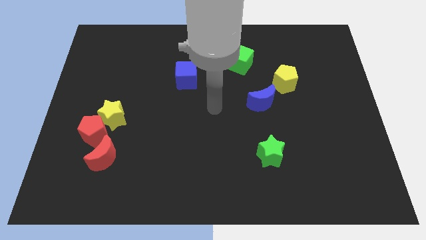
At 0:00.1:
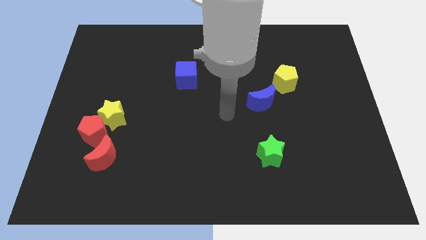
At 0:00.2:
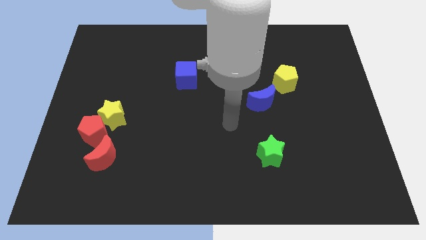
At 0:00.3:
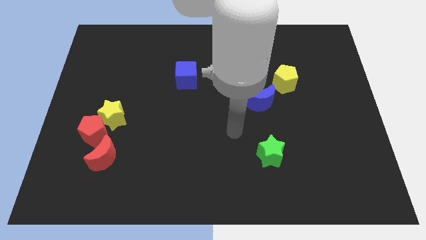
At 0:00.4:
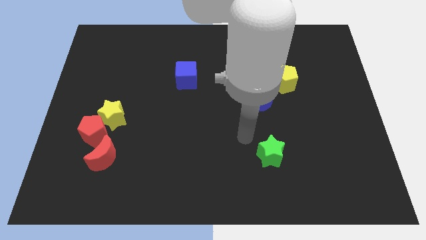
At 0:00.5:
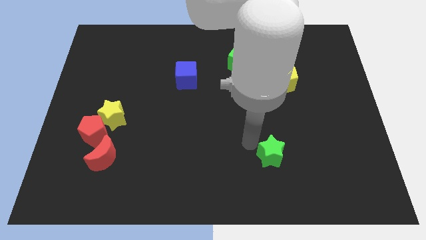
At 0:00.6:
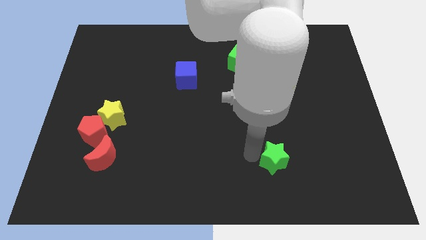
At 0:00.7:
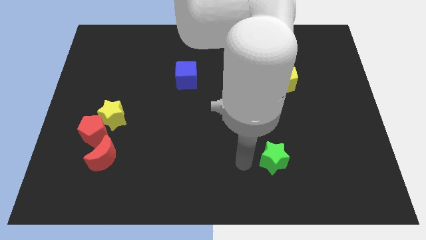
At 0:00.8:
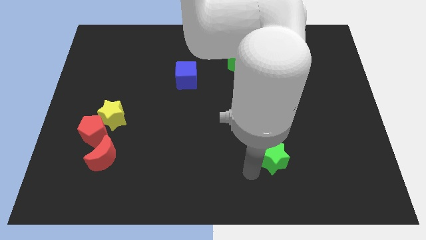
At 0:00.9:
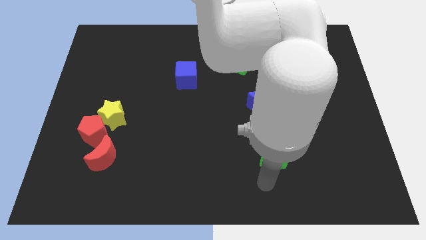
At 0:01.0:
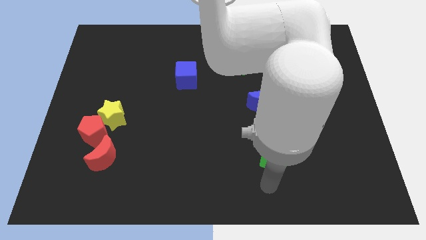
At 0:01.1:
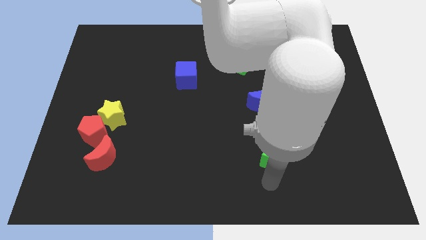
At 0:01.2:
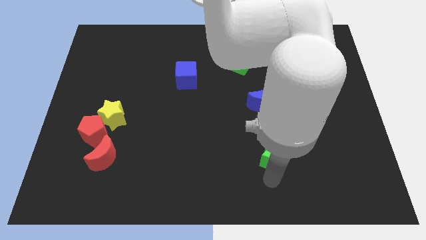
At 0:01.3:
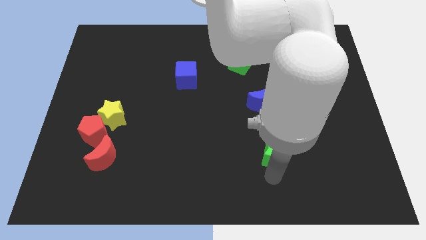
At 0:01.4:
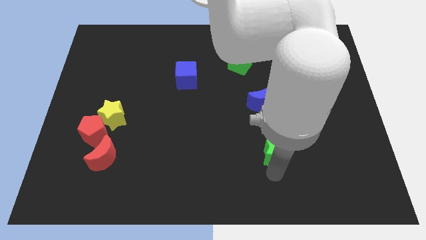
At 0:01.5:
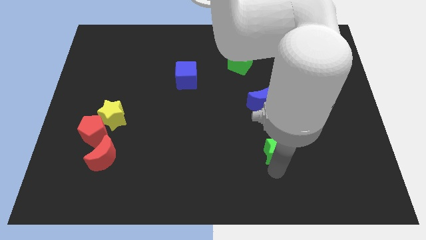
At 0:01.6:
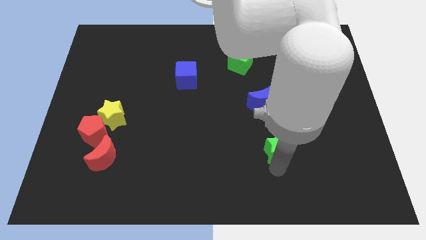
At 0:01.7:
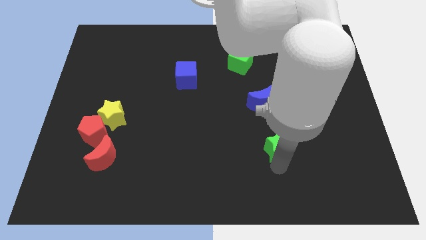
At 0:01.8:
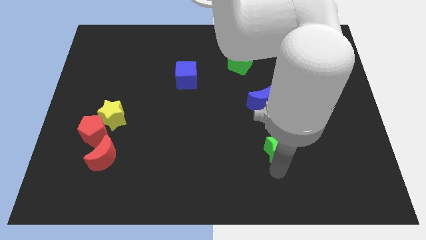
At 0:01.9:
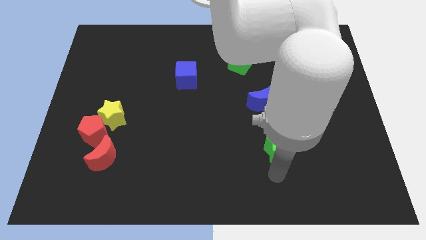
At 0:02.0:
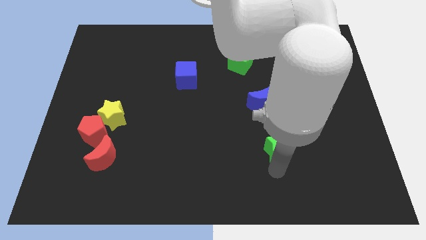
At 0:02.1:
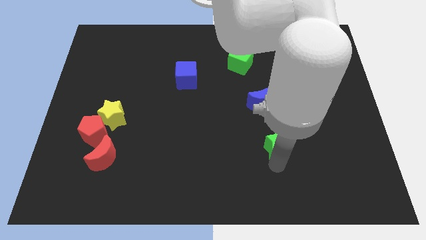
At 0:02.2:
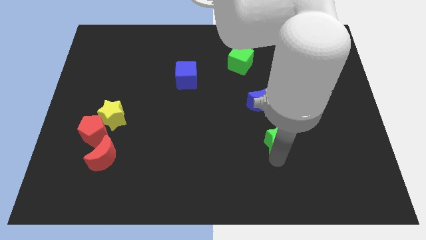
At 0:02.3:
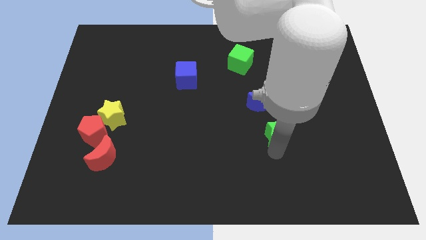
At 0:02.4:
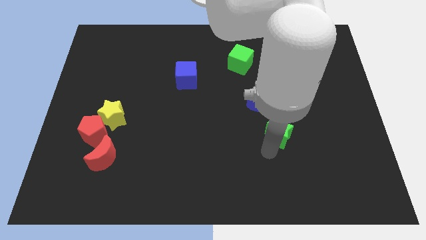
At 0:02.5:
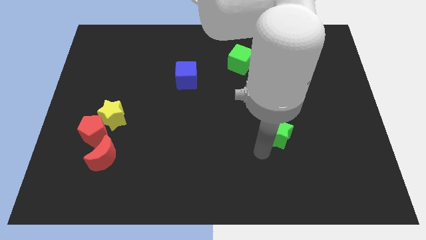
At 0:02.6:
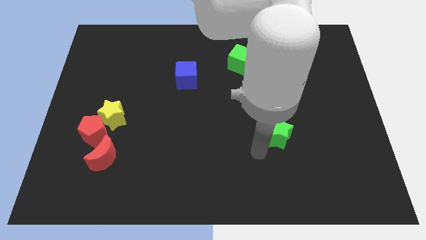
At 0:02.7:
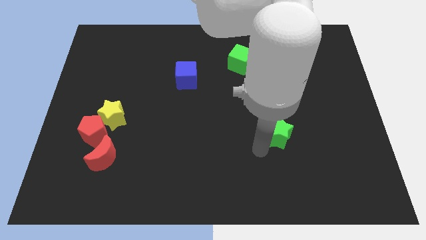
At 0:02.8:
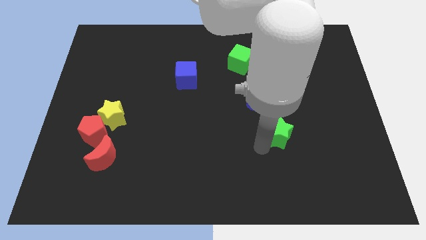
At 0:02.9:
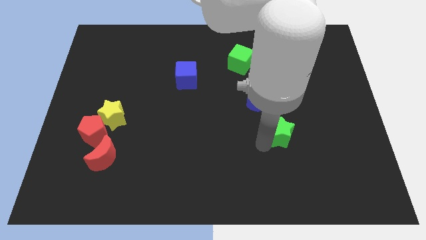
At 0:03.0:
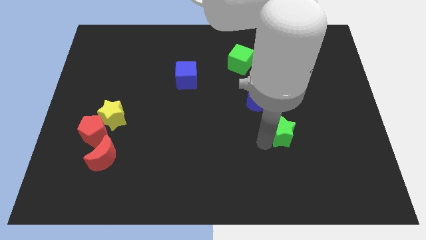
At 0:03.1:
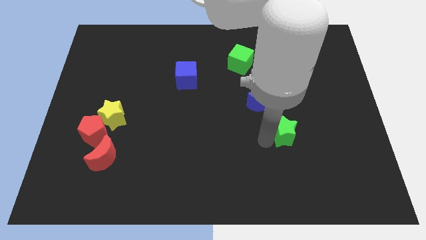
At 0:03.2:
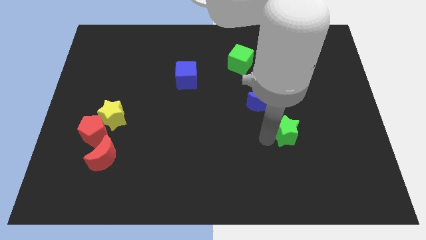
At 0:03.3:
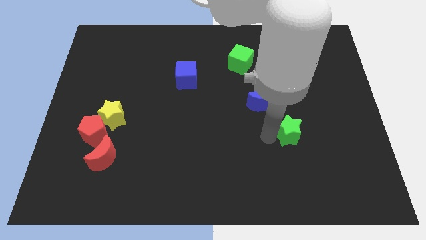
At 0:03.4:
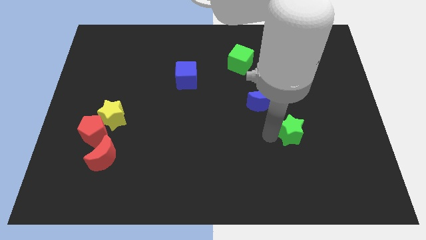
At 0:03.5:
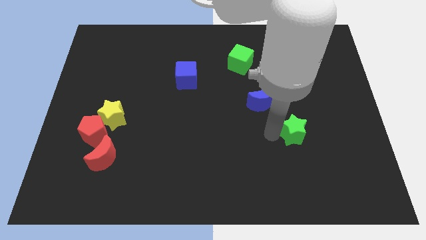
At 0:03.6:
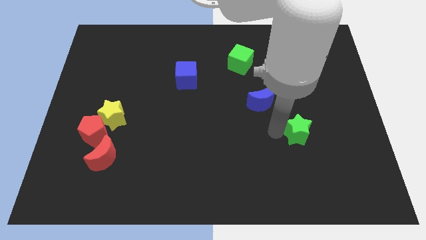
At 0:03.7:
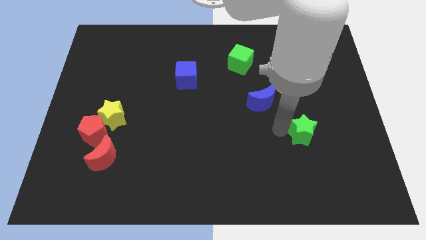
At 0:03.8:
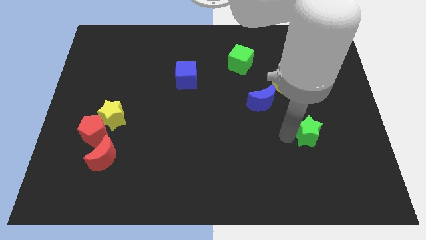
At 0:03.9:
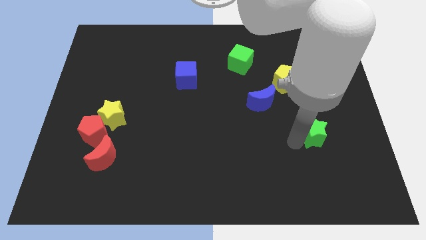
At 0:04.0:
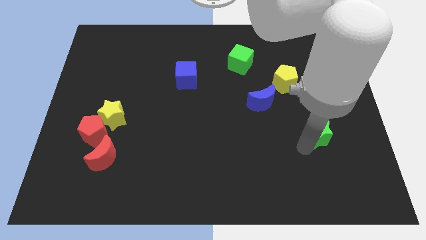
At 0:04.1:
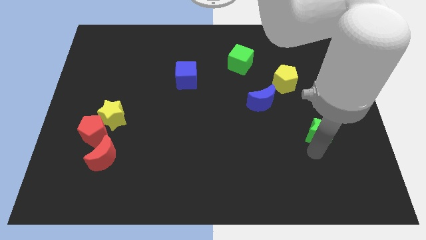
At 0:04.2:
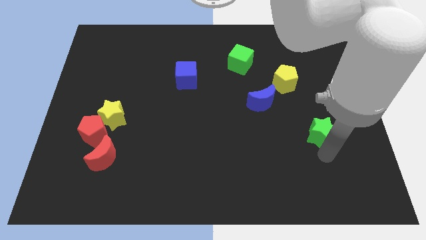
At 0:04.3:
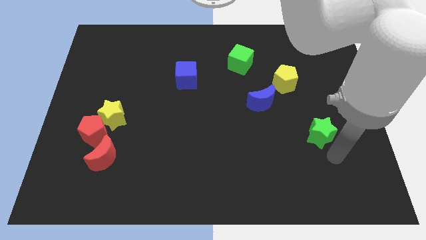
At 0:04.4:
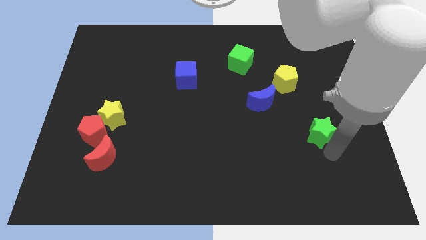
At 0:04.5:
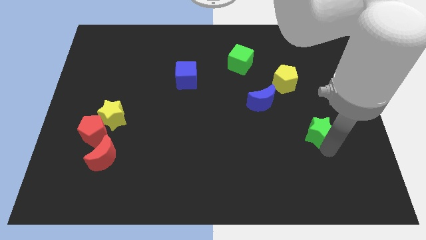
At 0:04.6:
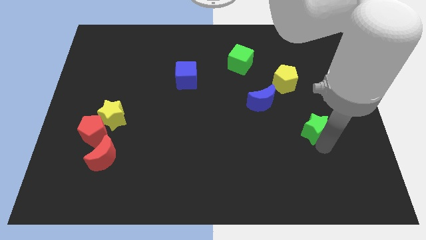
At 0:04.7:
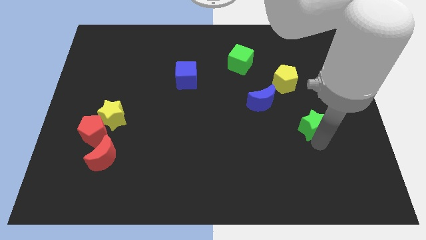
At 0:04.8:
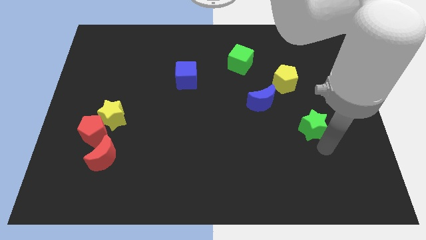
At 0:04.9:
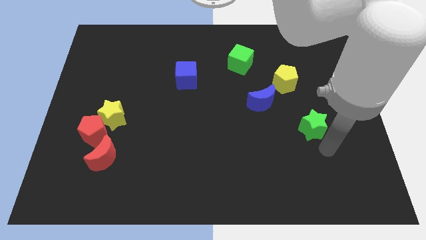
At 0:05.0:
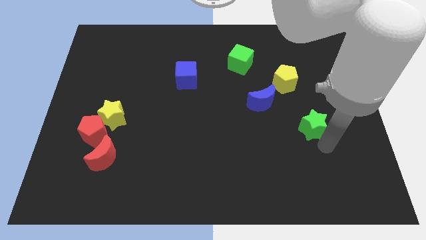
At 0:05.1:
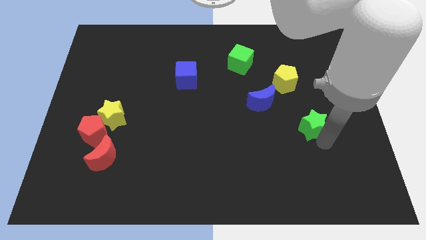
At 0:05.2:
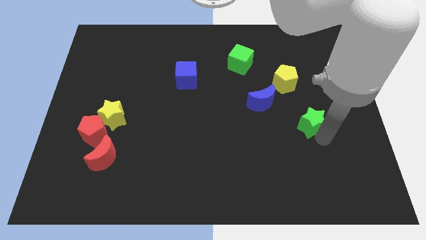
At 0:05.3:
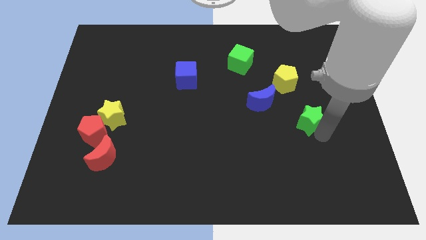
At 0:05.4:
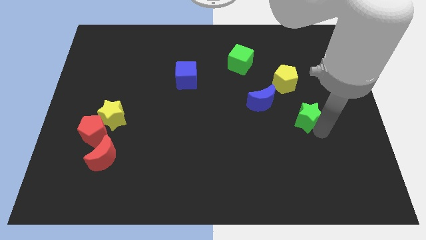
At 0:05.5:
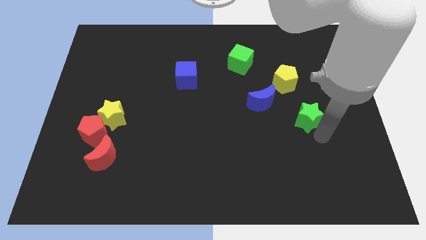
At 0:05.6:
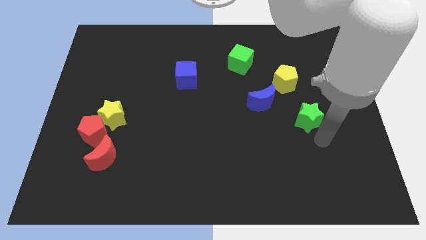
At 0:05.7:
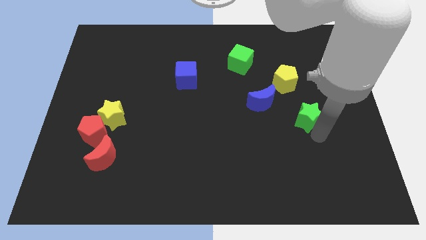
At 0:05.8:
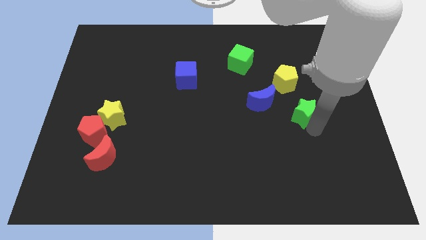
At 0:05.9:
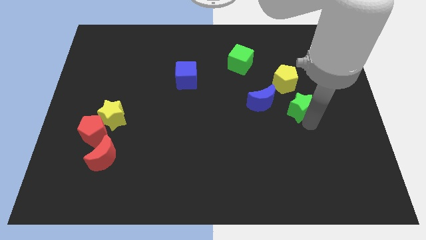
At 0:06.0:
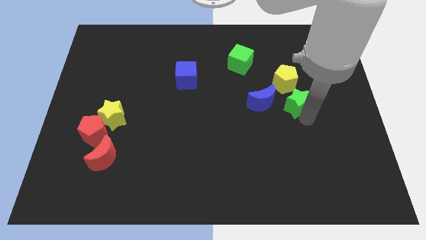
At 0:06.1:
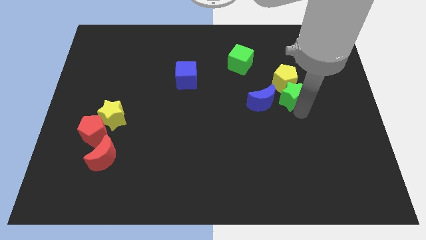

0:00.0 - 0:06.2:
push the green star next to the yellow pentagon

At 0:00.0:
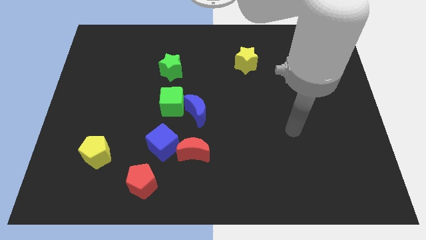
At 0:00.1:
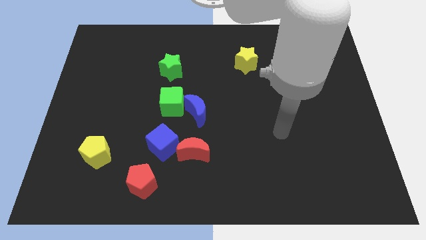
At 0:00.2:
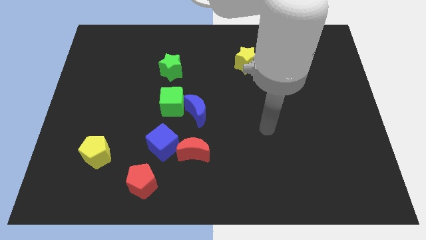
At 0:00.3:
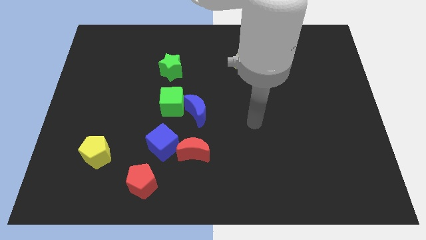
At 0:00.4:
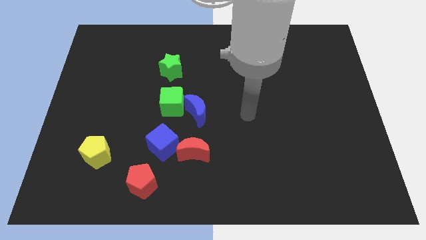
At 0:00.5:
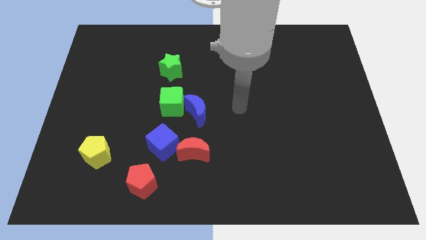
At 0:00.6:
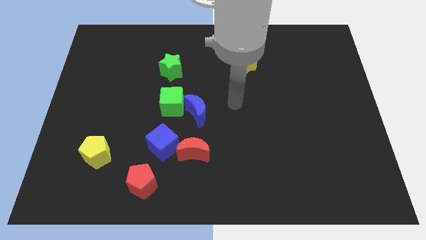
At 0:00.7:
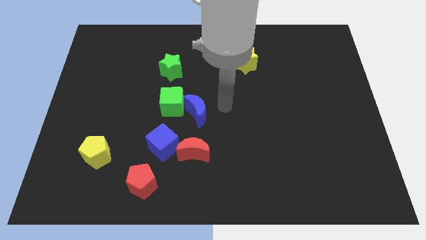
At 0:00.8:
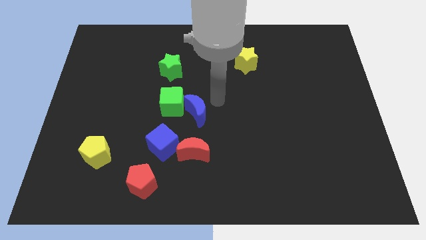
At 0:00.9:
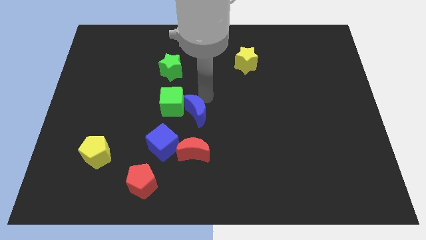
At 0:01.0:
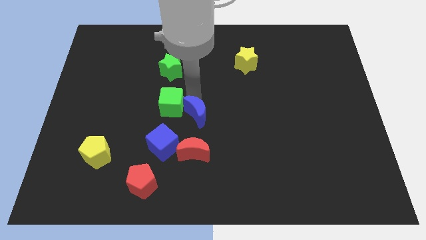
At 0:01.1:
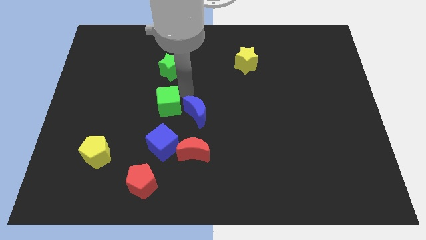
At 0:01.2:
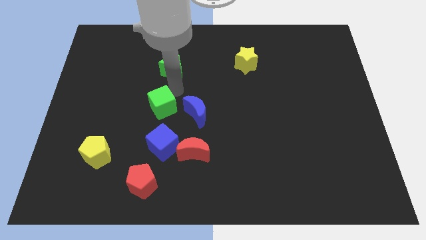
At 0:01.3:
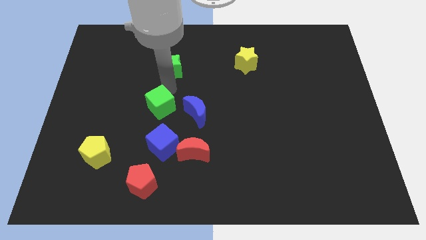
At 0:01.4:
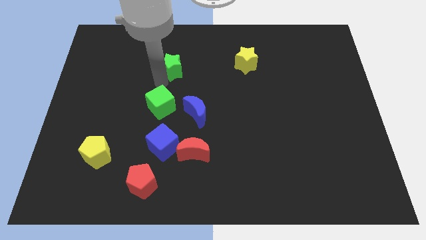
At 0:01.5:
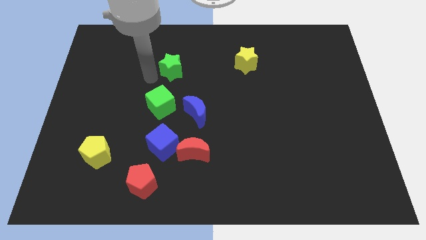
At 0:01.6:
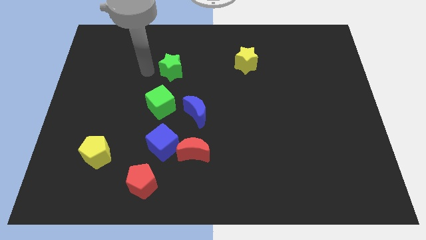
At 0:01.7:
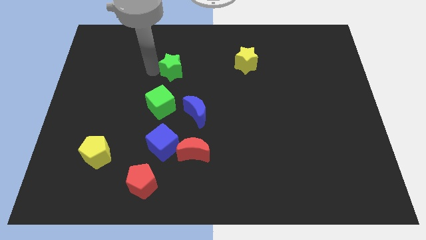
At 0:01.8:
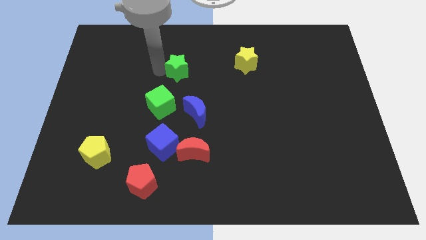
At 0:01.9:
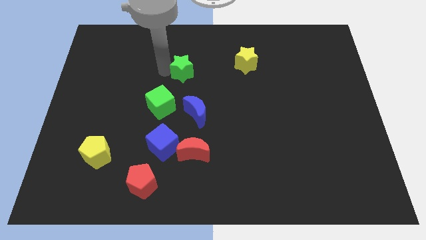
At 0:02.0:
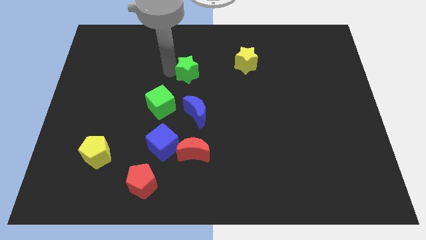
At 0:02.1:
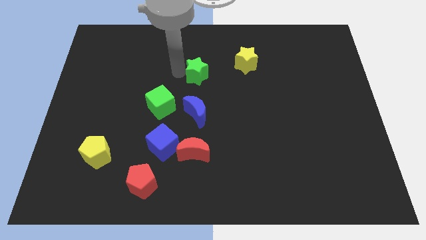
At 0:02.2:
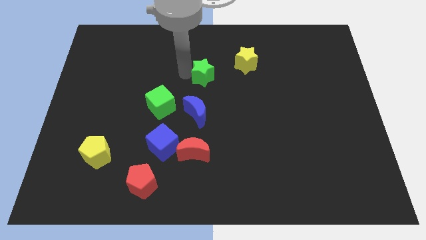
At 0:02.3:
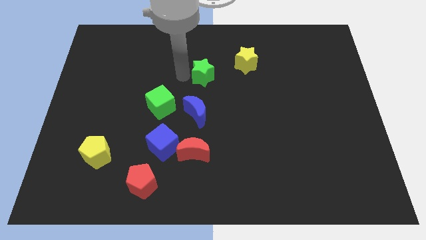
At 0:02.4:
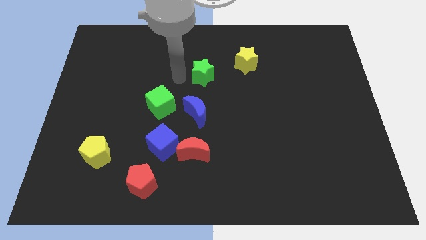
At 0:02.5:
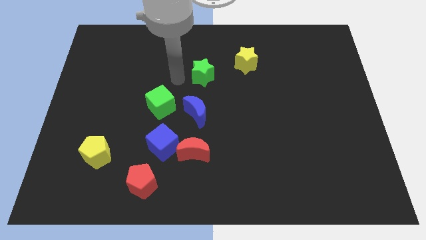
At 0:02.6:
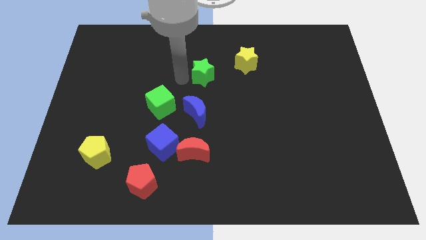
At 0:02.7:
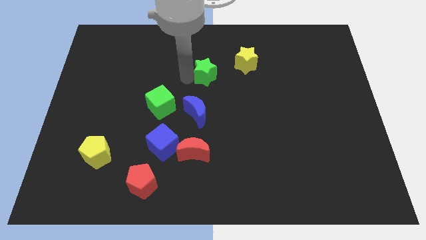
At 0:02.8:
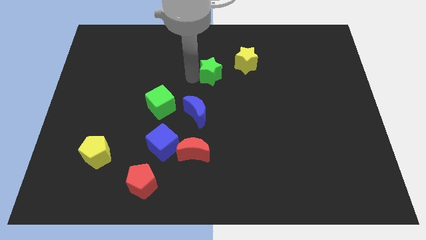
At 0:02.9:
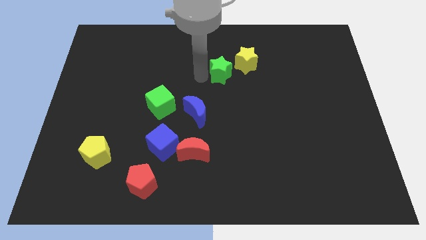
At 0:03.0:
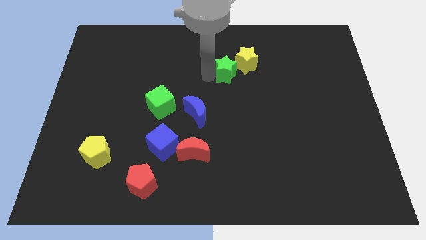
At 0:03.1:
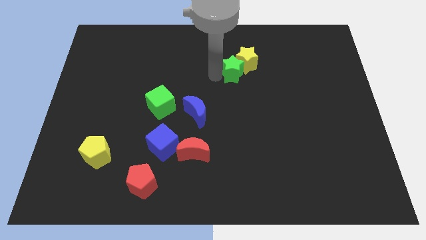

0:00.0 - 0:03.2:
slide the green star next to the yellow star
